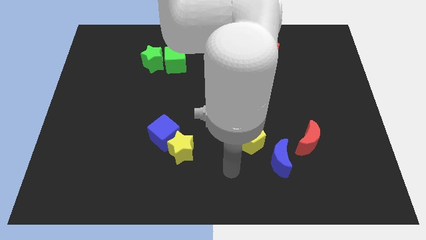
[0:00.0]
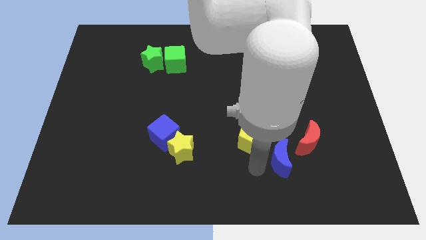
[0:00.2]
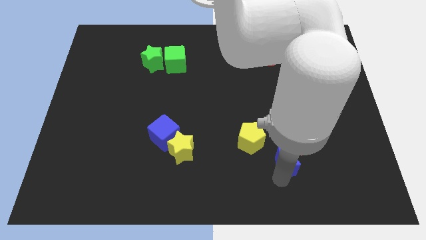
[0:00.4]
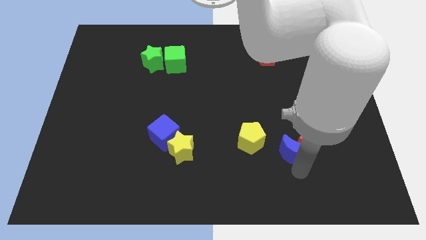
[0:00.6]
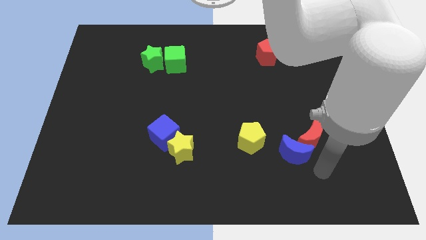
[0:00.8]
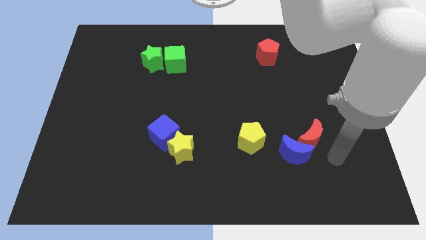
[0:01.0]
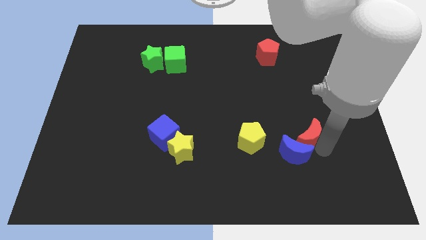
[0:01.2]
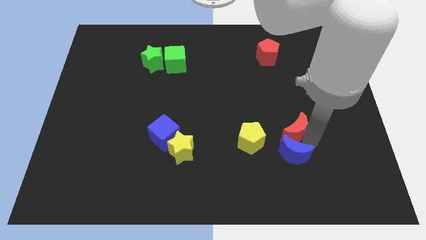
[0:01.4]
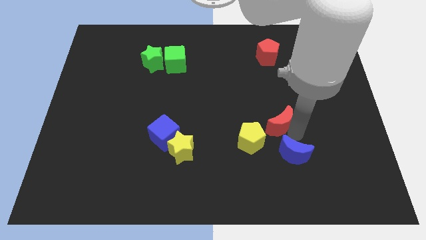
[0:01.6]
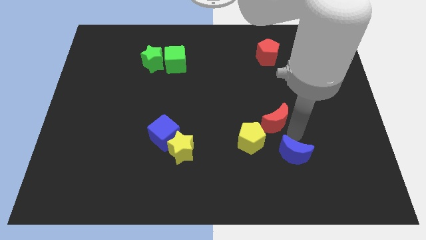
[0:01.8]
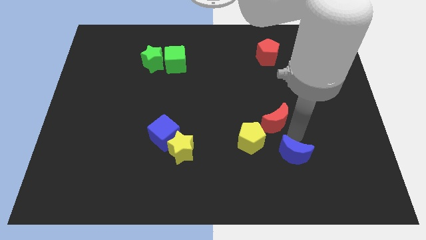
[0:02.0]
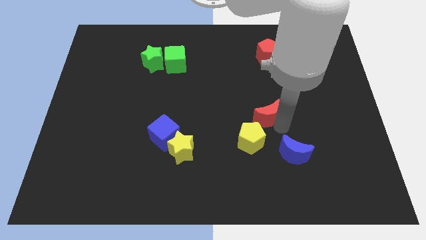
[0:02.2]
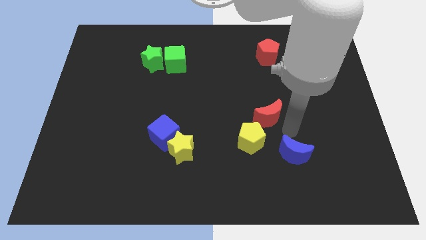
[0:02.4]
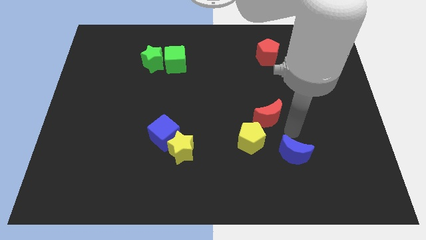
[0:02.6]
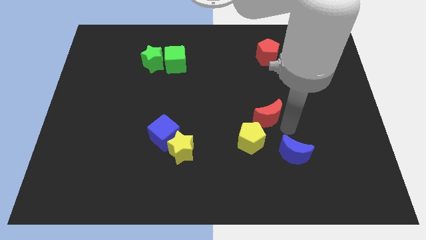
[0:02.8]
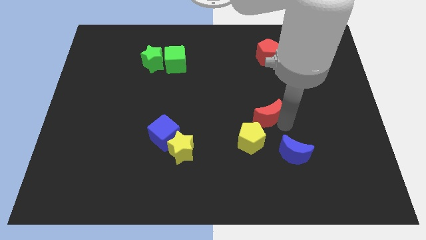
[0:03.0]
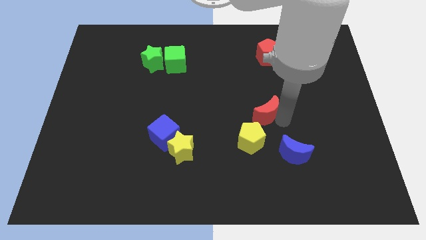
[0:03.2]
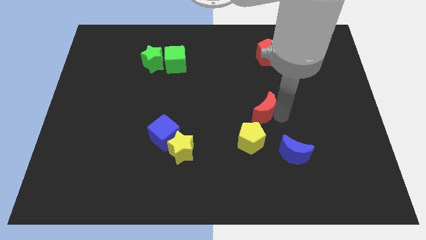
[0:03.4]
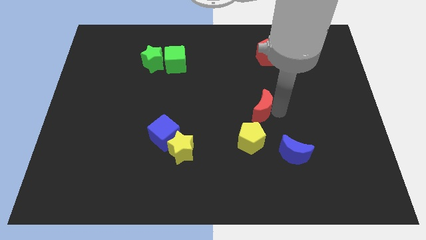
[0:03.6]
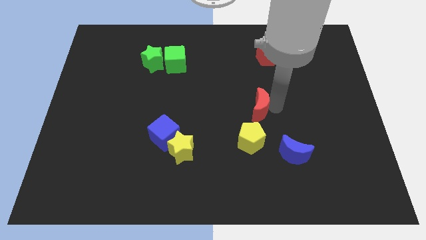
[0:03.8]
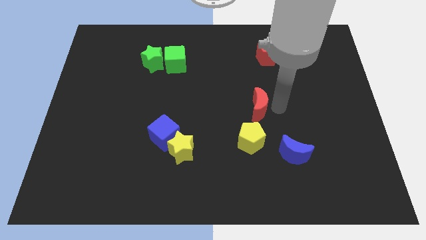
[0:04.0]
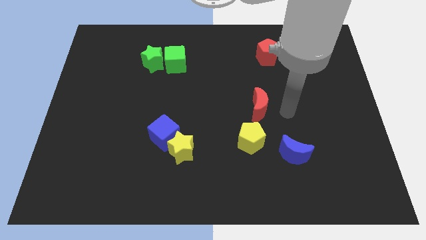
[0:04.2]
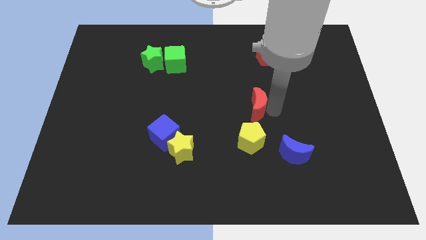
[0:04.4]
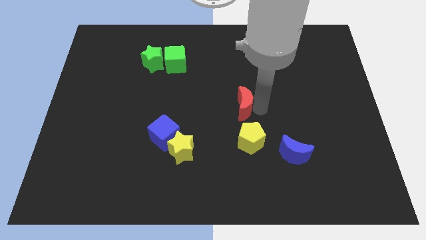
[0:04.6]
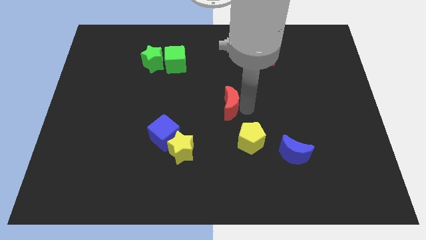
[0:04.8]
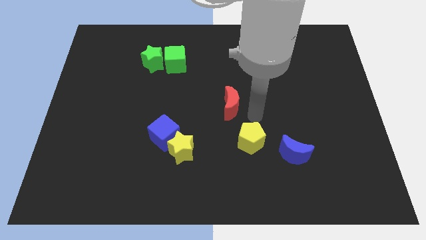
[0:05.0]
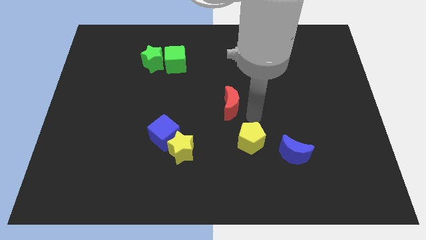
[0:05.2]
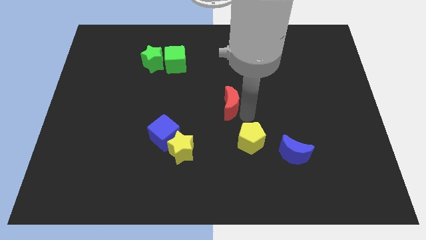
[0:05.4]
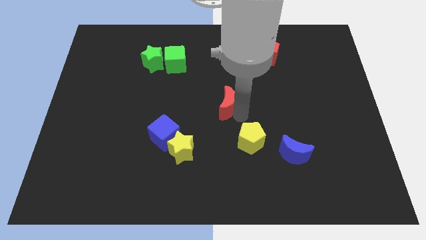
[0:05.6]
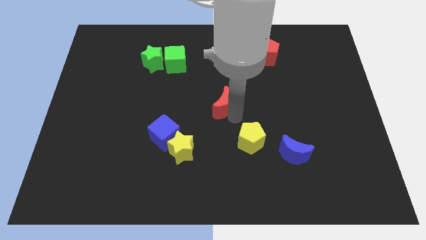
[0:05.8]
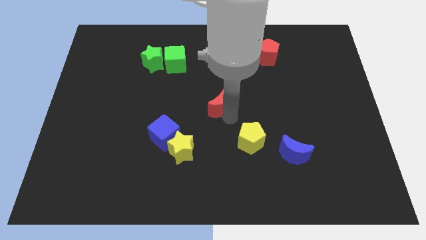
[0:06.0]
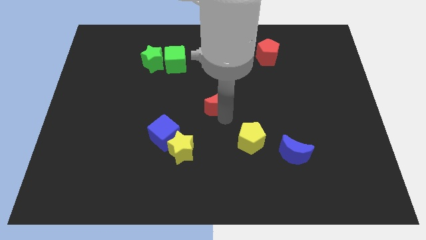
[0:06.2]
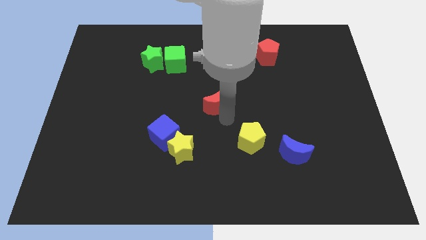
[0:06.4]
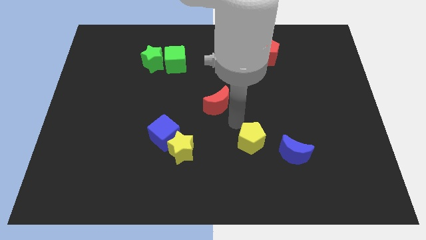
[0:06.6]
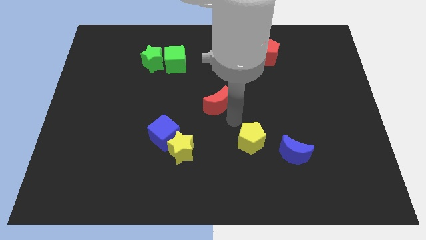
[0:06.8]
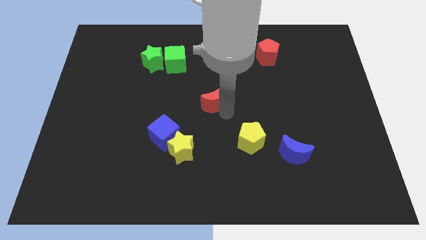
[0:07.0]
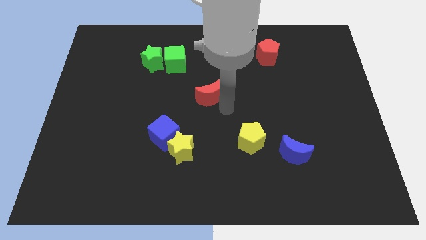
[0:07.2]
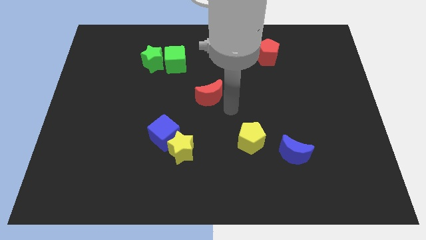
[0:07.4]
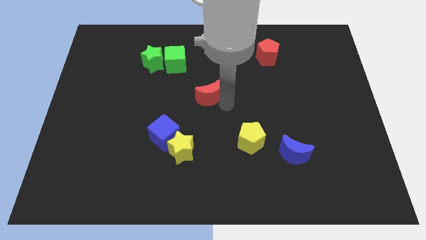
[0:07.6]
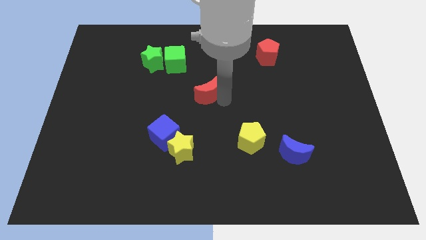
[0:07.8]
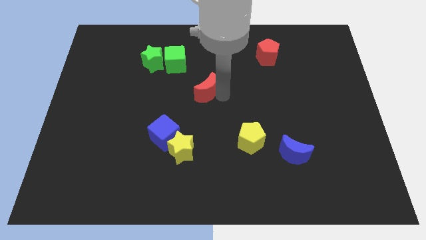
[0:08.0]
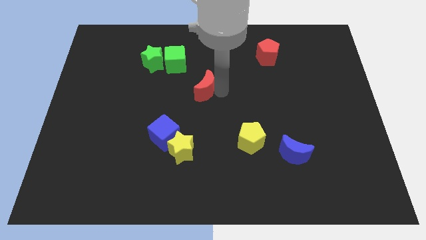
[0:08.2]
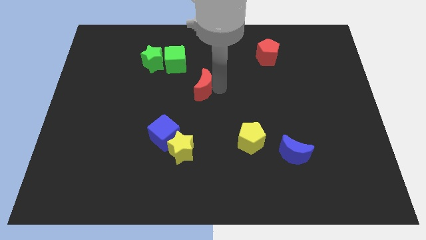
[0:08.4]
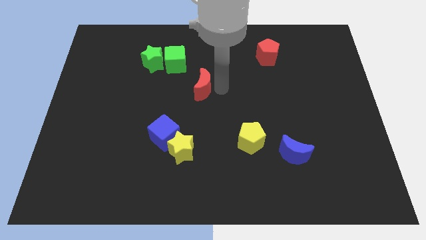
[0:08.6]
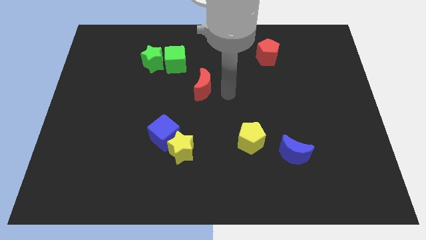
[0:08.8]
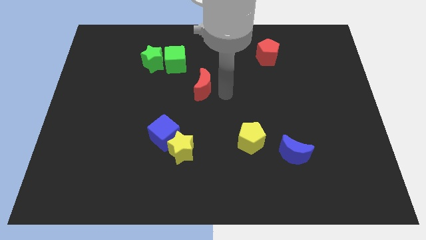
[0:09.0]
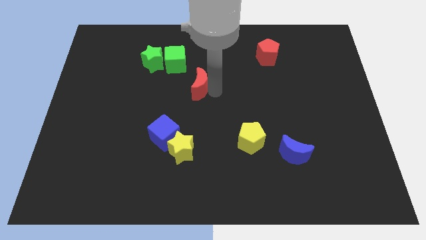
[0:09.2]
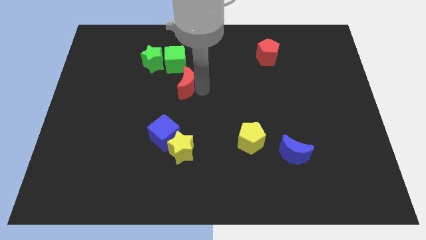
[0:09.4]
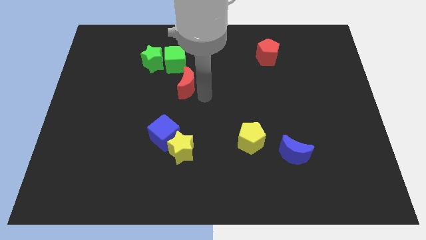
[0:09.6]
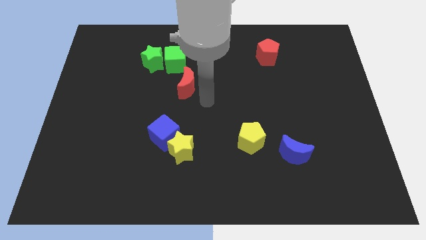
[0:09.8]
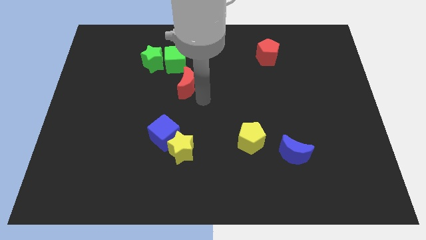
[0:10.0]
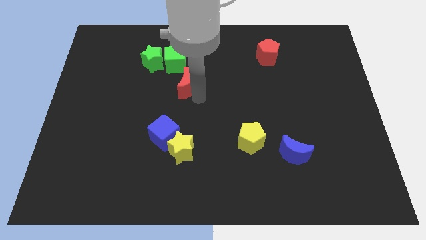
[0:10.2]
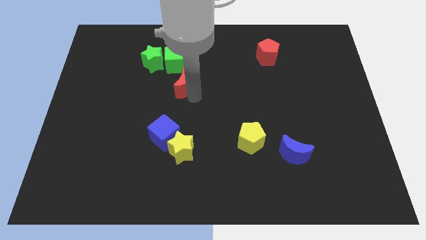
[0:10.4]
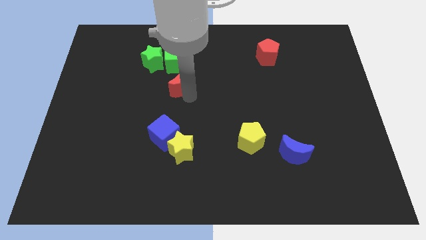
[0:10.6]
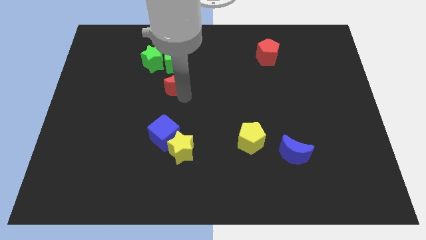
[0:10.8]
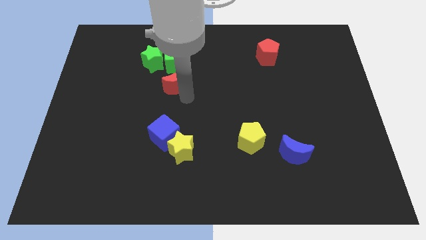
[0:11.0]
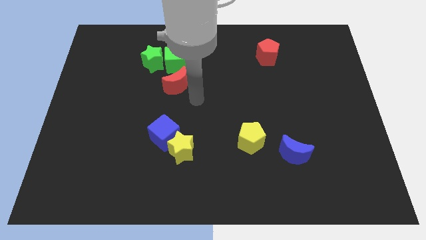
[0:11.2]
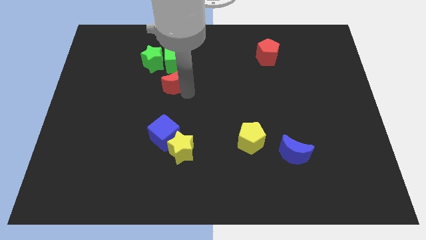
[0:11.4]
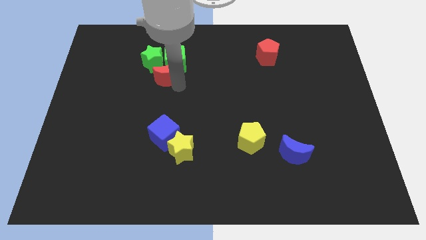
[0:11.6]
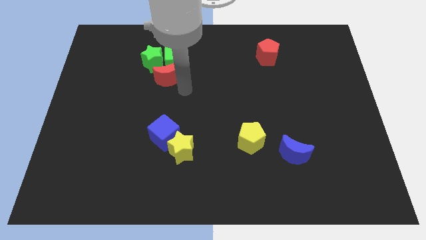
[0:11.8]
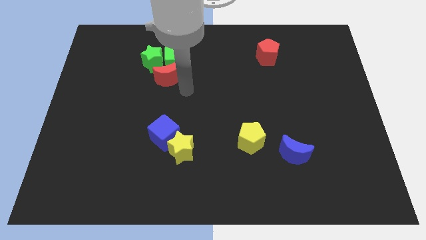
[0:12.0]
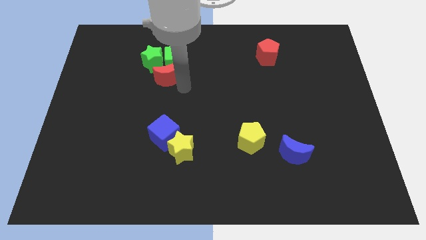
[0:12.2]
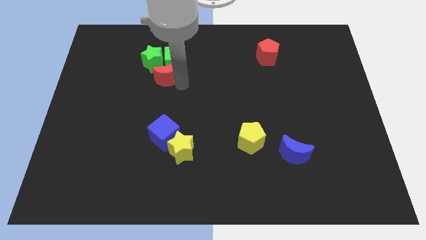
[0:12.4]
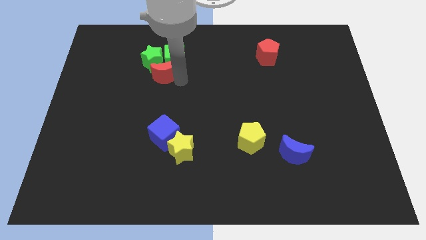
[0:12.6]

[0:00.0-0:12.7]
put the red moon next to the green star
